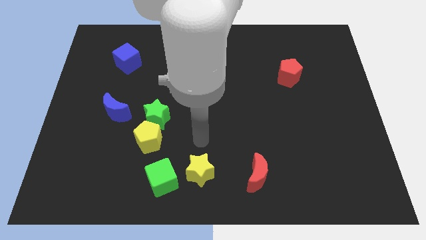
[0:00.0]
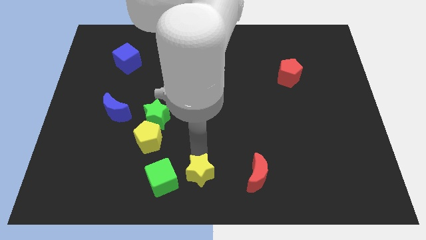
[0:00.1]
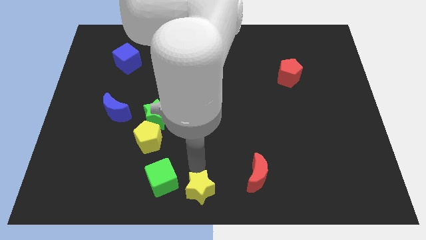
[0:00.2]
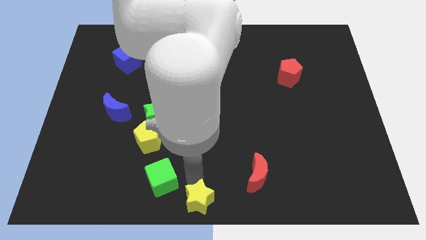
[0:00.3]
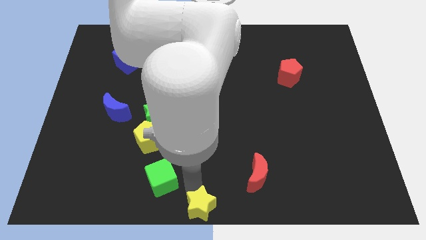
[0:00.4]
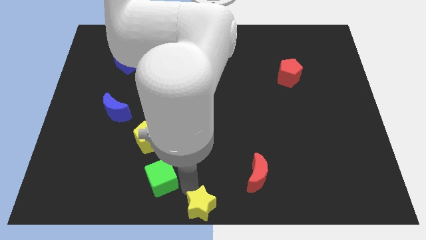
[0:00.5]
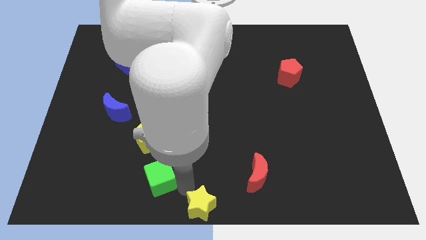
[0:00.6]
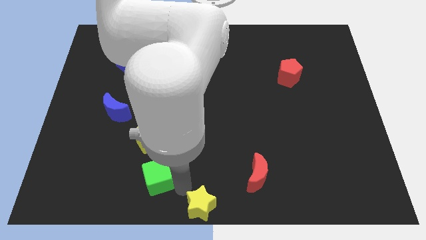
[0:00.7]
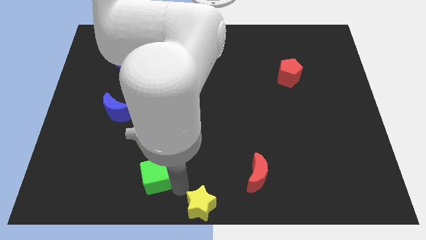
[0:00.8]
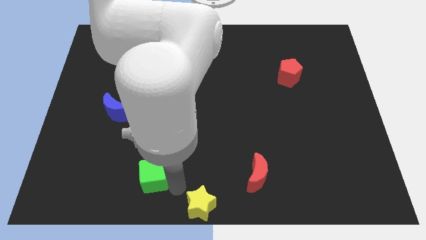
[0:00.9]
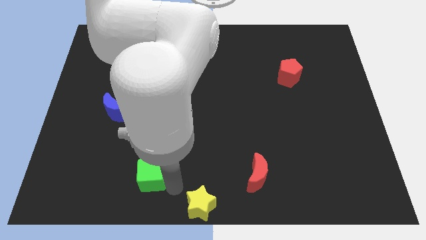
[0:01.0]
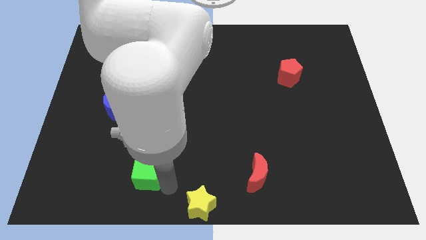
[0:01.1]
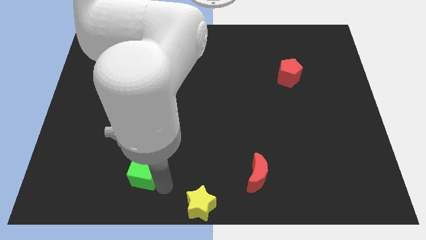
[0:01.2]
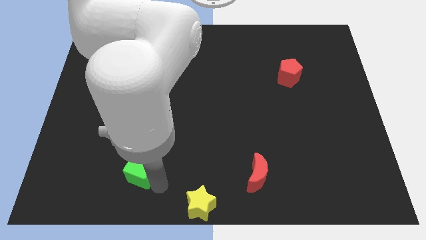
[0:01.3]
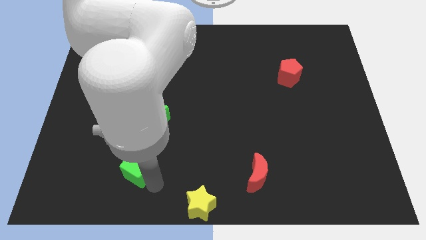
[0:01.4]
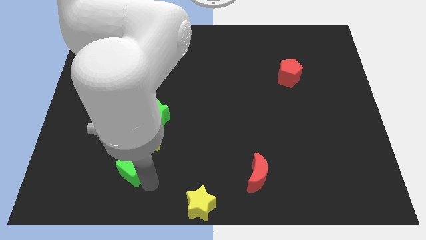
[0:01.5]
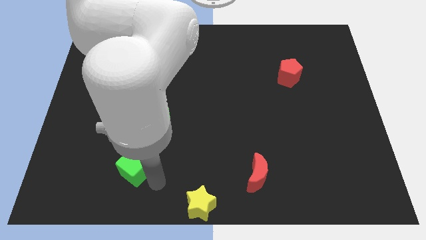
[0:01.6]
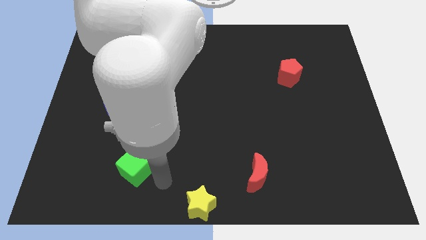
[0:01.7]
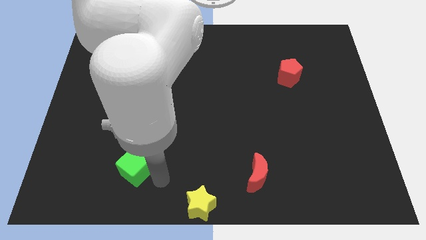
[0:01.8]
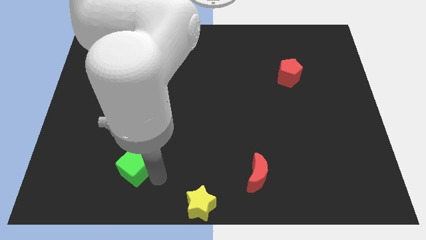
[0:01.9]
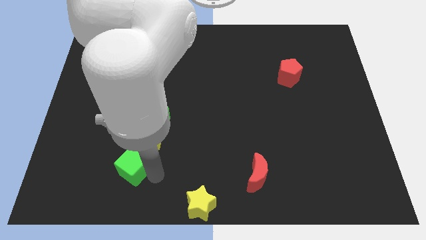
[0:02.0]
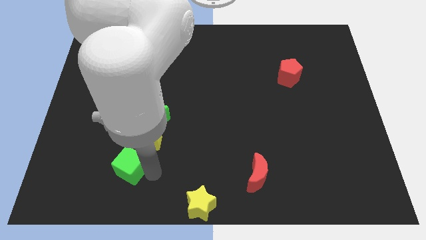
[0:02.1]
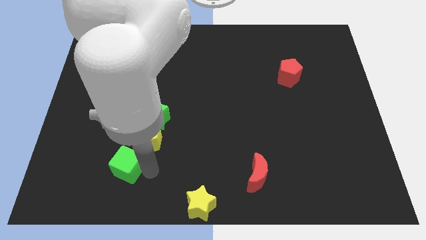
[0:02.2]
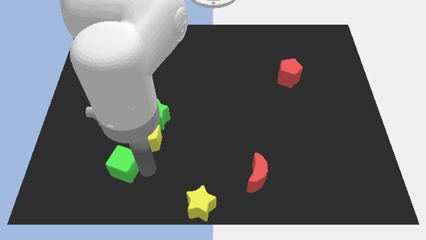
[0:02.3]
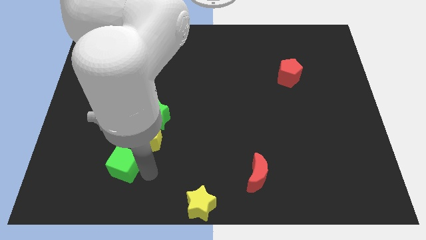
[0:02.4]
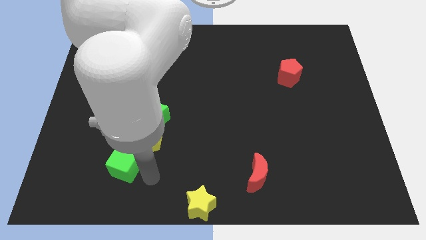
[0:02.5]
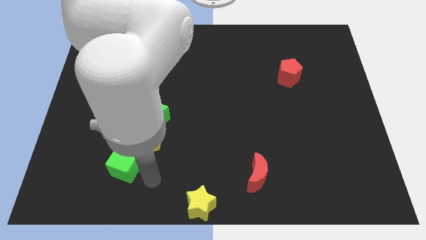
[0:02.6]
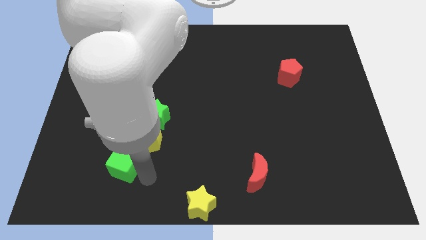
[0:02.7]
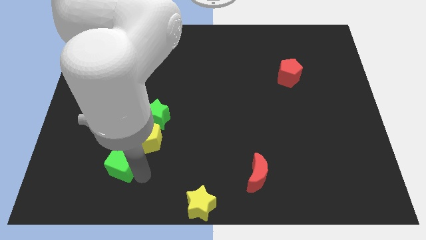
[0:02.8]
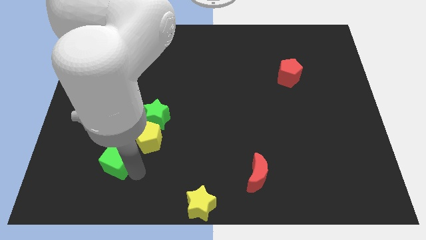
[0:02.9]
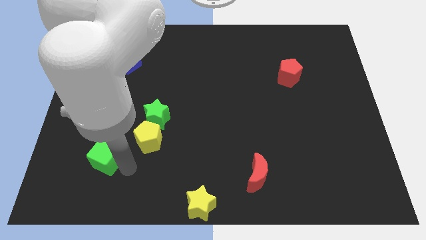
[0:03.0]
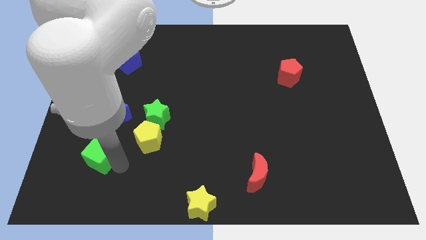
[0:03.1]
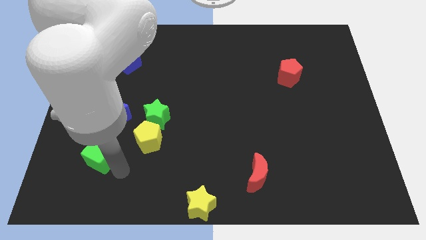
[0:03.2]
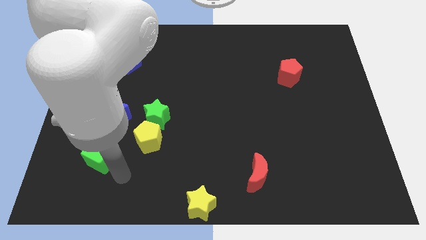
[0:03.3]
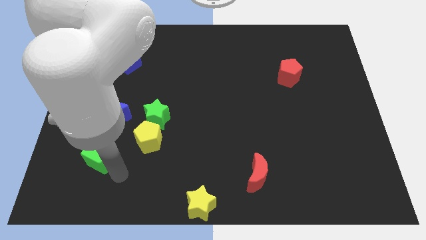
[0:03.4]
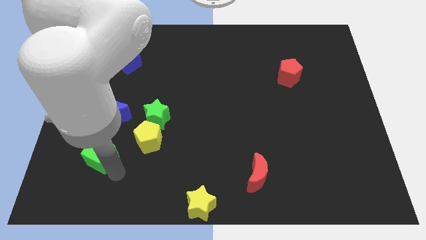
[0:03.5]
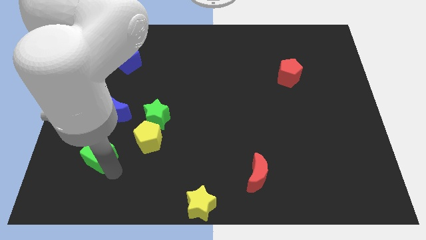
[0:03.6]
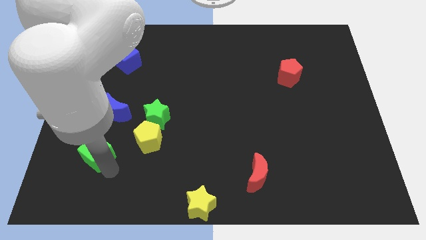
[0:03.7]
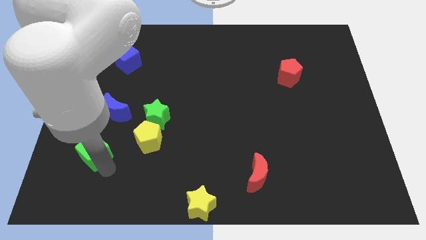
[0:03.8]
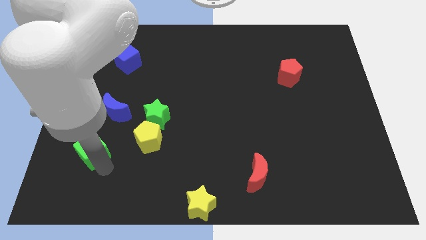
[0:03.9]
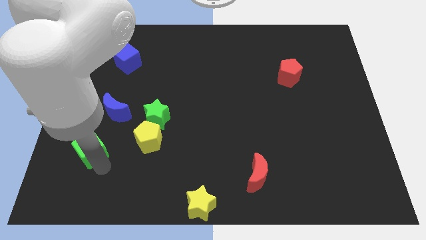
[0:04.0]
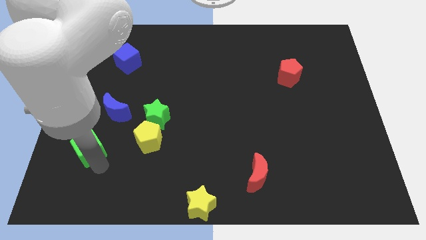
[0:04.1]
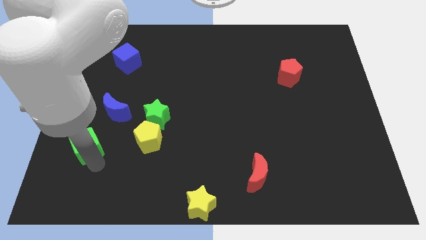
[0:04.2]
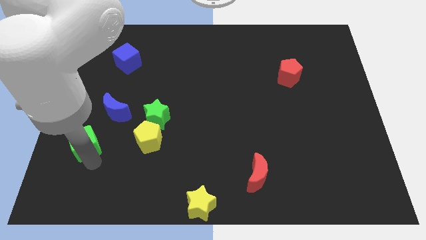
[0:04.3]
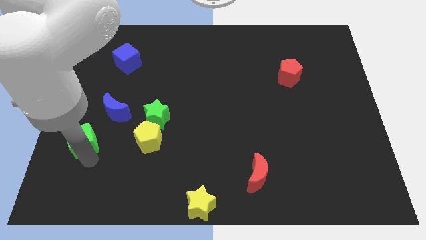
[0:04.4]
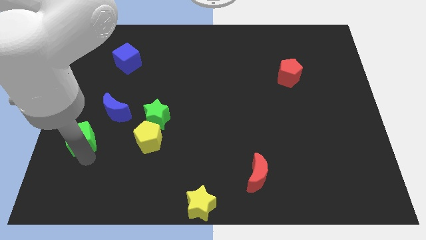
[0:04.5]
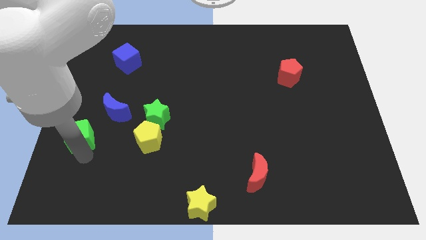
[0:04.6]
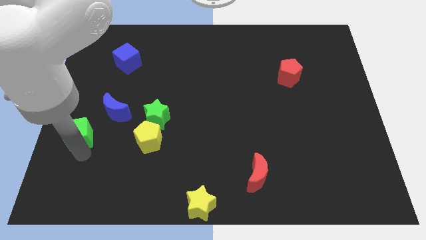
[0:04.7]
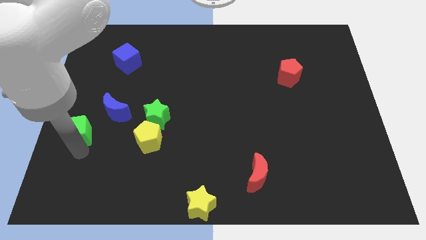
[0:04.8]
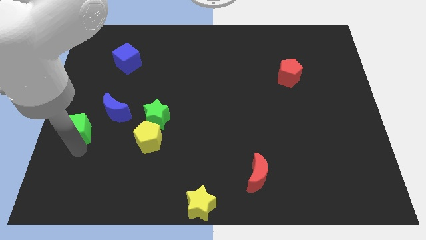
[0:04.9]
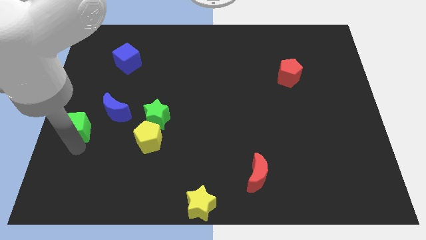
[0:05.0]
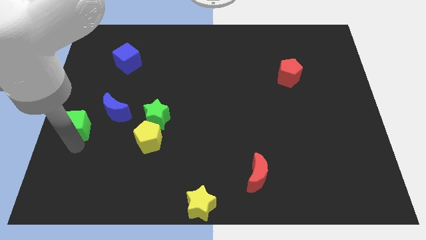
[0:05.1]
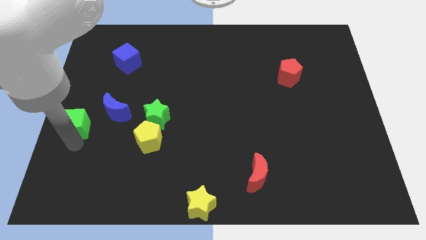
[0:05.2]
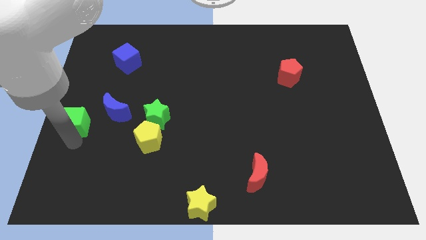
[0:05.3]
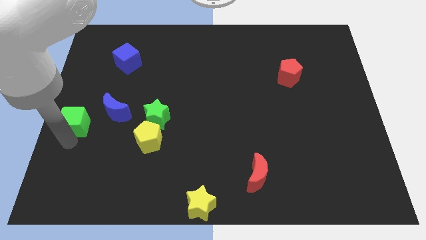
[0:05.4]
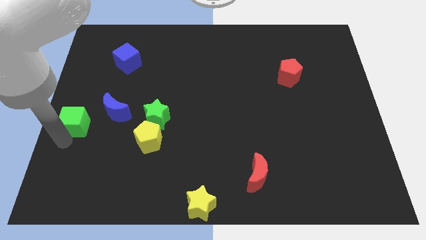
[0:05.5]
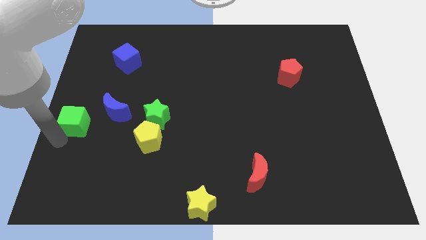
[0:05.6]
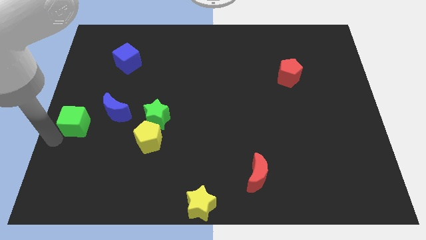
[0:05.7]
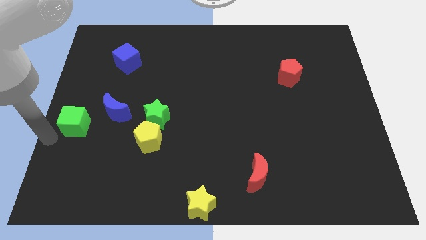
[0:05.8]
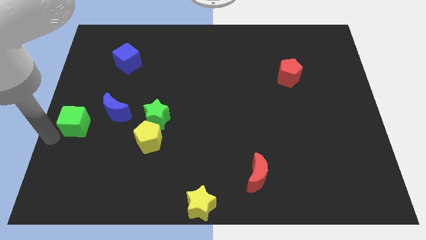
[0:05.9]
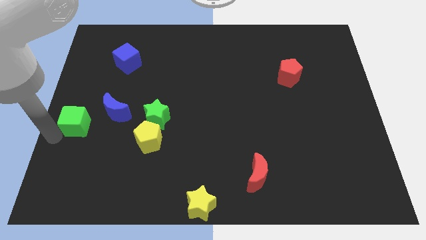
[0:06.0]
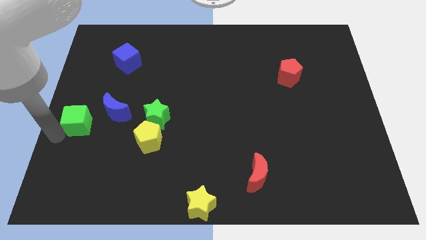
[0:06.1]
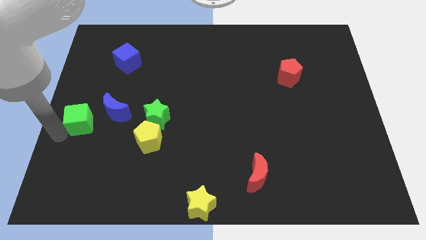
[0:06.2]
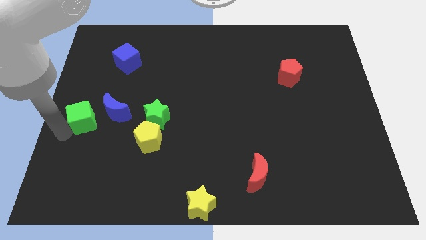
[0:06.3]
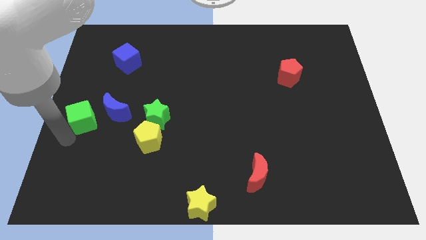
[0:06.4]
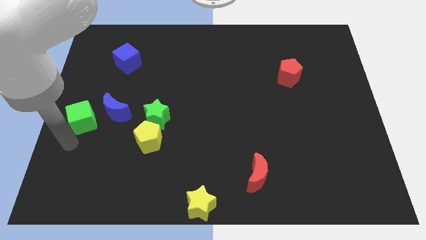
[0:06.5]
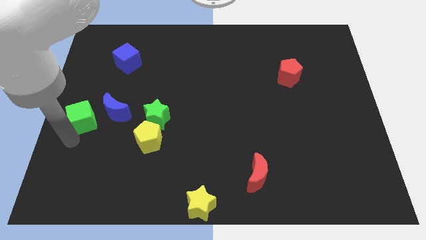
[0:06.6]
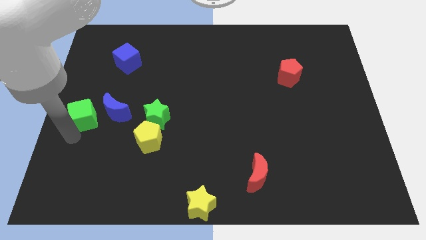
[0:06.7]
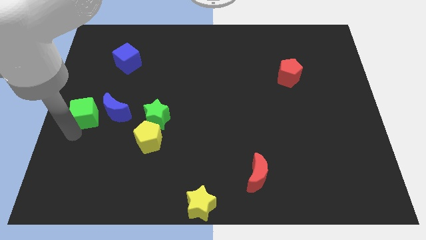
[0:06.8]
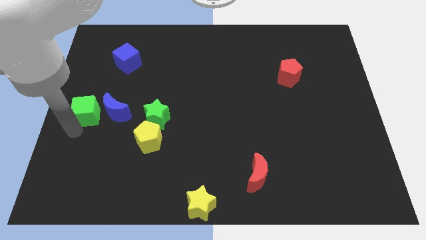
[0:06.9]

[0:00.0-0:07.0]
slide the green cube diagonally up and to the left of the blue moon
